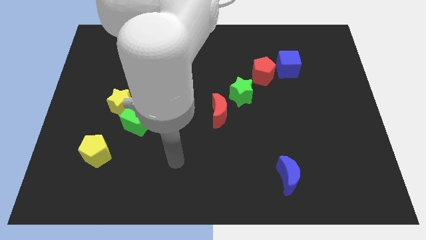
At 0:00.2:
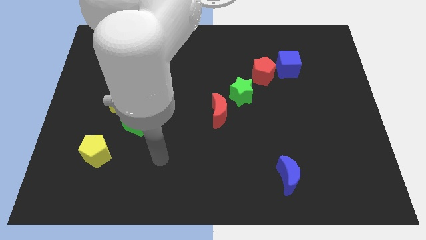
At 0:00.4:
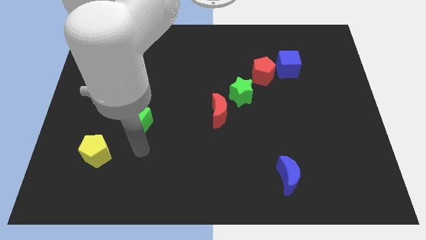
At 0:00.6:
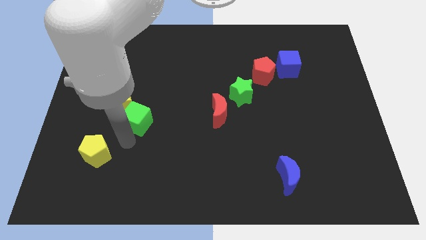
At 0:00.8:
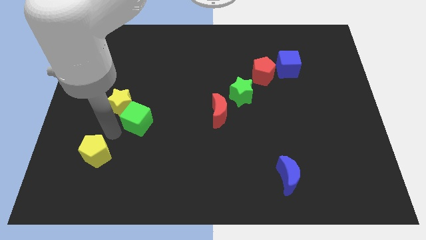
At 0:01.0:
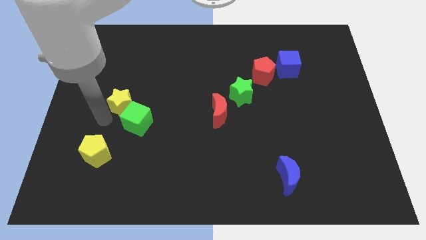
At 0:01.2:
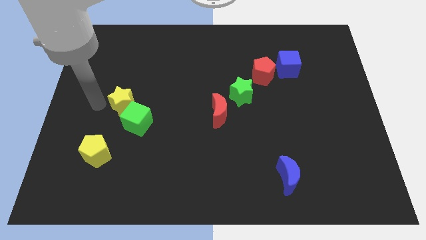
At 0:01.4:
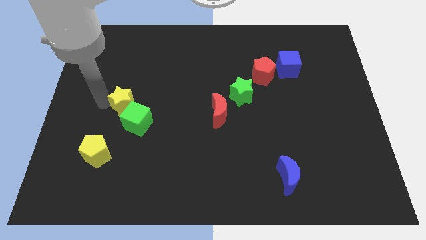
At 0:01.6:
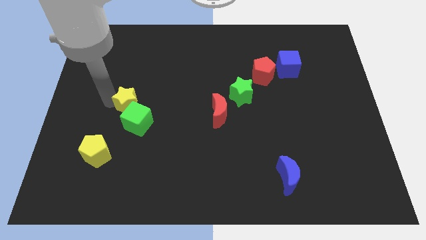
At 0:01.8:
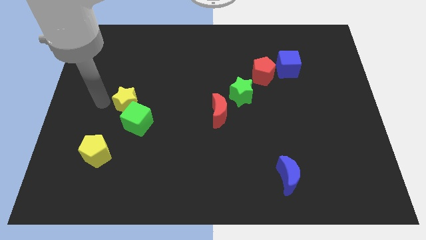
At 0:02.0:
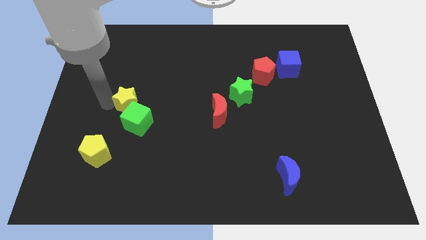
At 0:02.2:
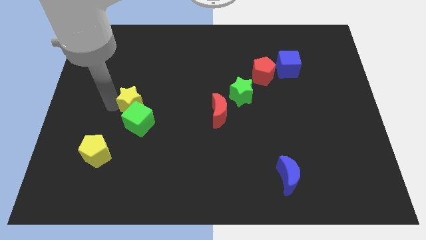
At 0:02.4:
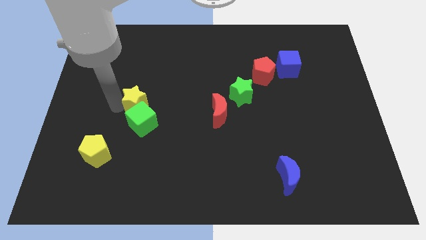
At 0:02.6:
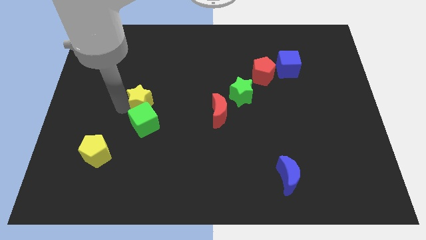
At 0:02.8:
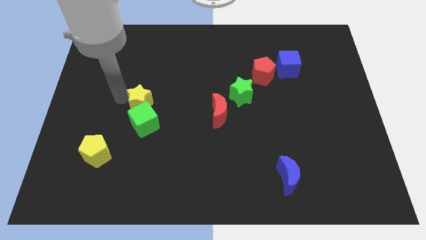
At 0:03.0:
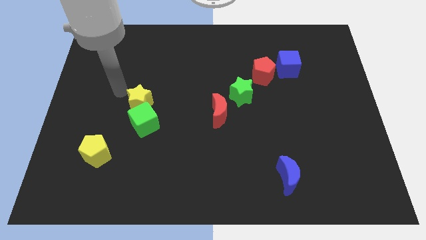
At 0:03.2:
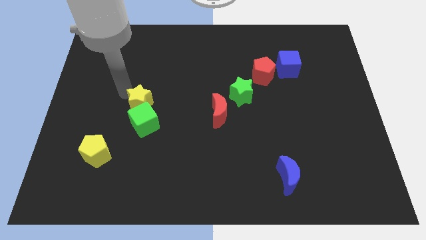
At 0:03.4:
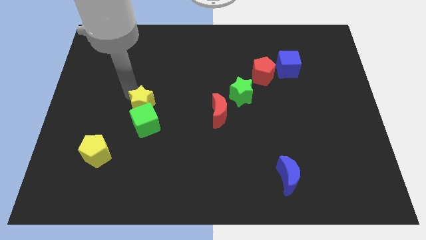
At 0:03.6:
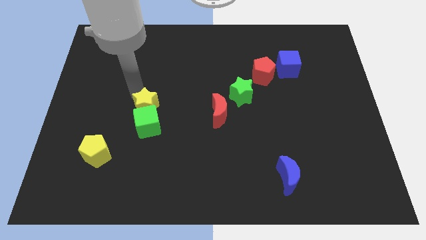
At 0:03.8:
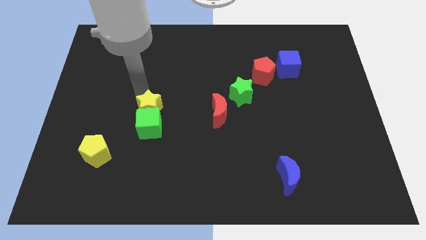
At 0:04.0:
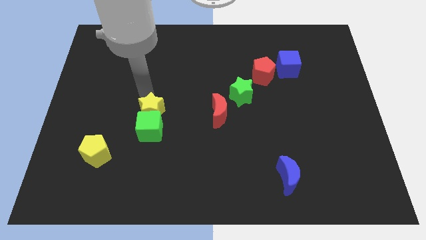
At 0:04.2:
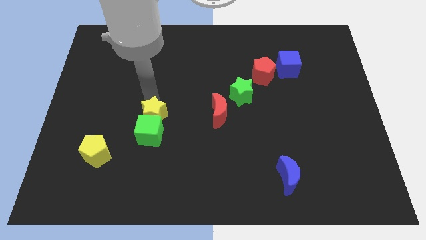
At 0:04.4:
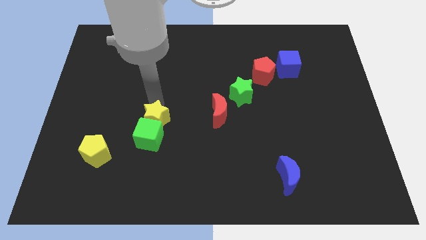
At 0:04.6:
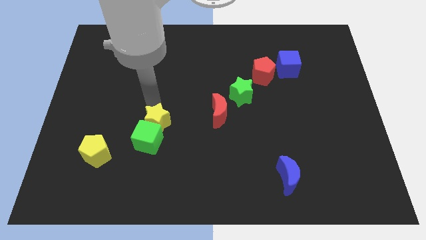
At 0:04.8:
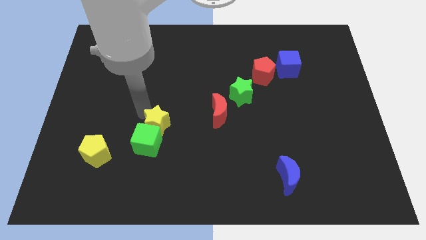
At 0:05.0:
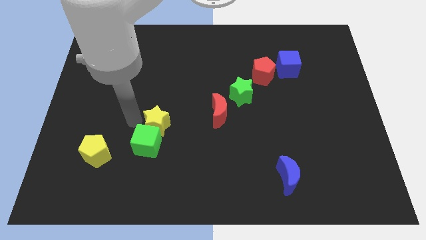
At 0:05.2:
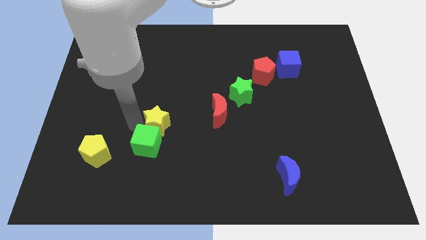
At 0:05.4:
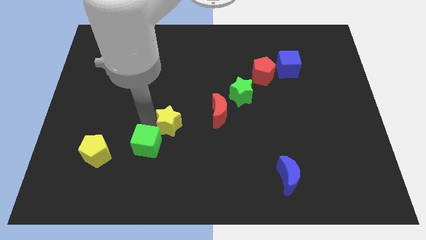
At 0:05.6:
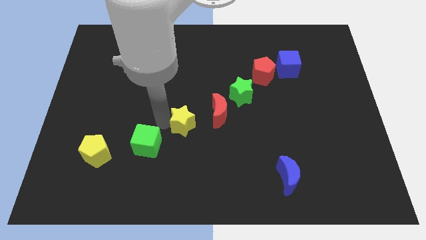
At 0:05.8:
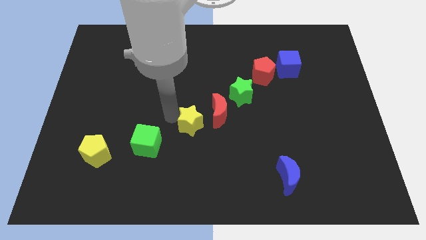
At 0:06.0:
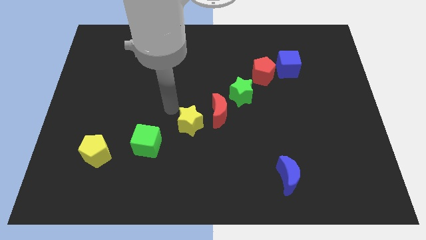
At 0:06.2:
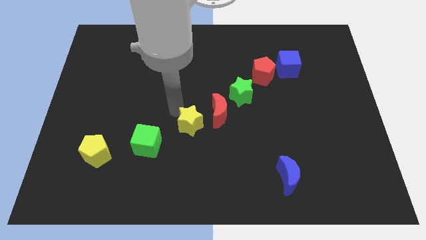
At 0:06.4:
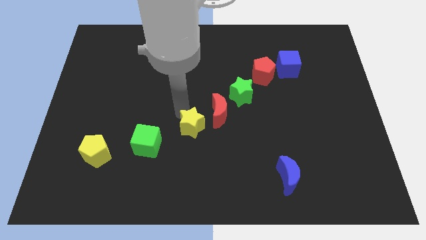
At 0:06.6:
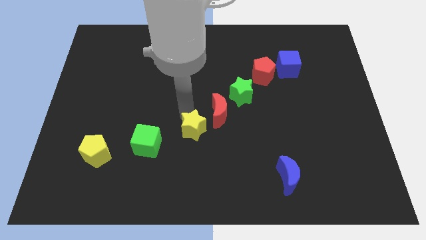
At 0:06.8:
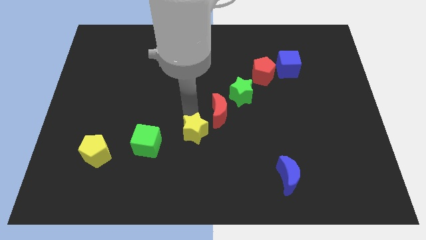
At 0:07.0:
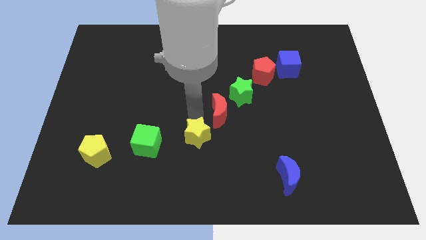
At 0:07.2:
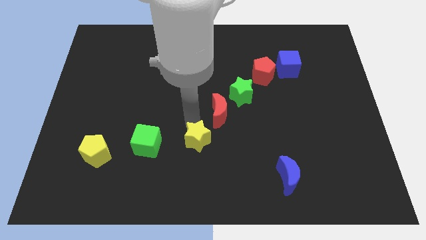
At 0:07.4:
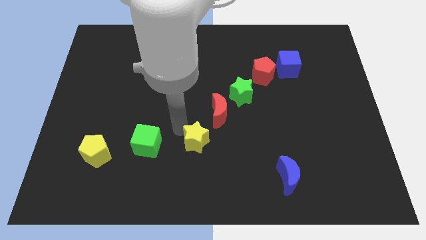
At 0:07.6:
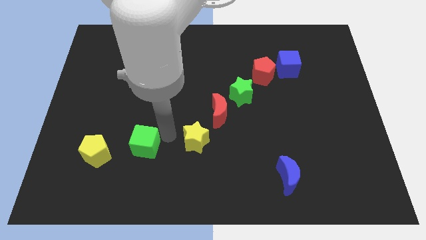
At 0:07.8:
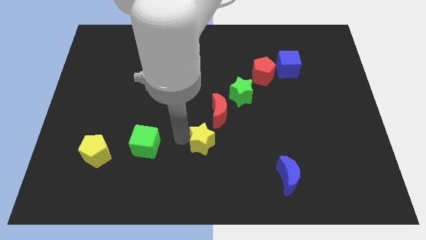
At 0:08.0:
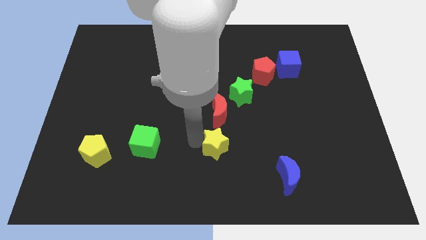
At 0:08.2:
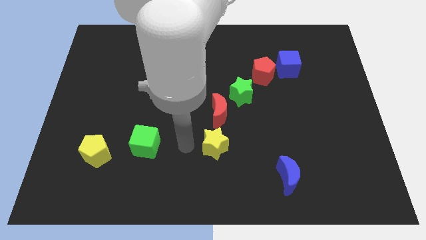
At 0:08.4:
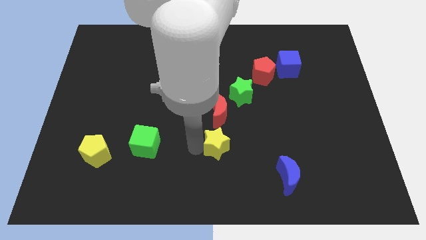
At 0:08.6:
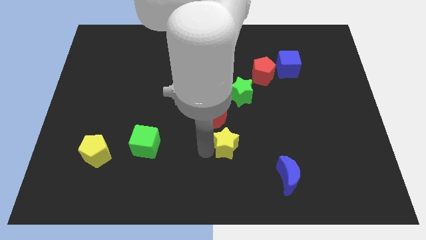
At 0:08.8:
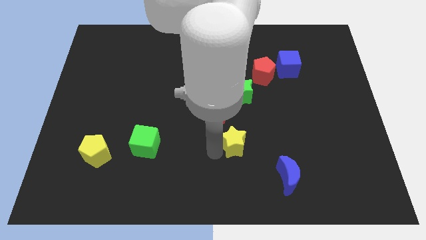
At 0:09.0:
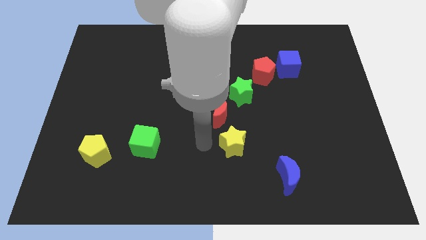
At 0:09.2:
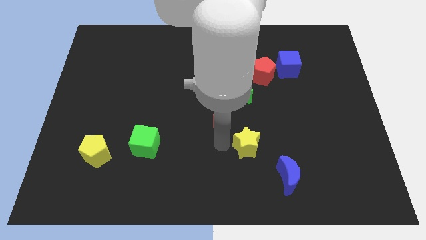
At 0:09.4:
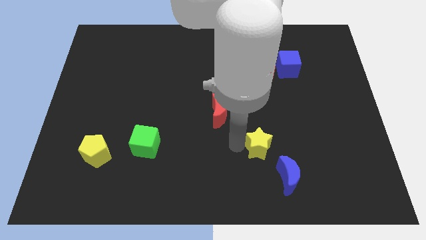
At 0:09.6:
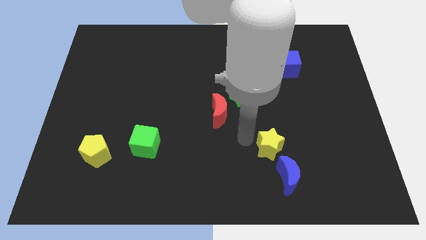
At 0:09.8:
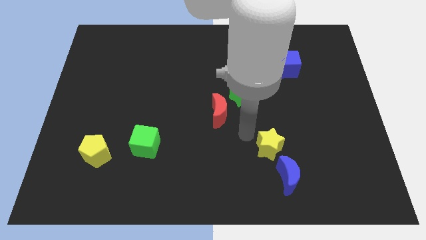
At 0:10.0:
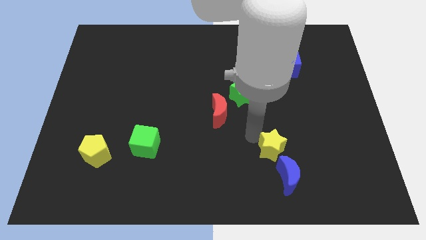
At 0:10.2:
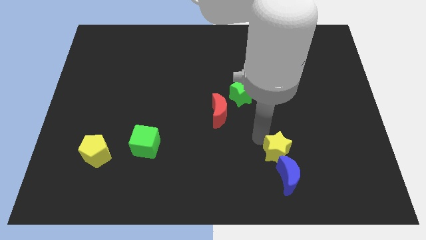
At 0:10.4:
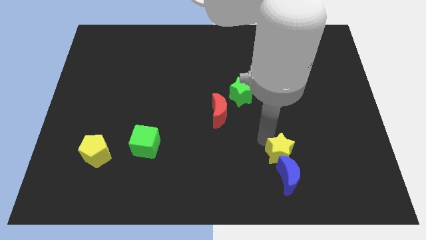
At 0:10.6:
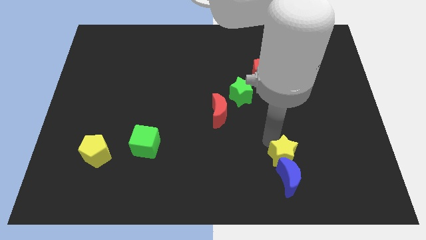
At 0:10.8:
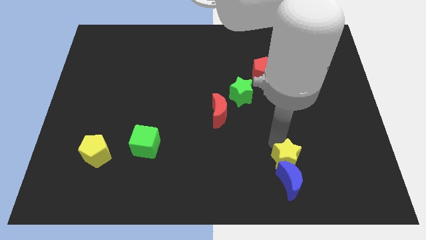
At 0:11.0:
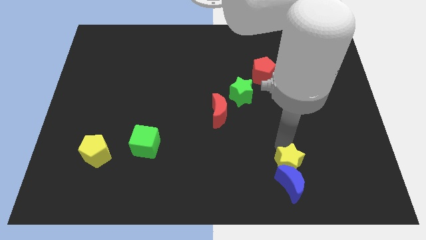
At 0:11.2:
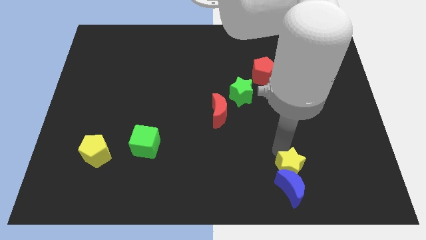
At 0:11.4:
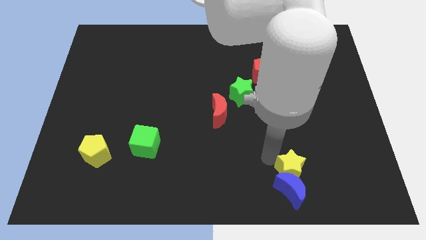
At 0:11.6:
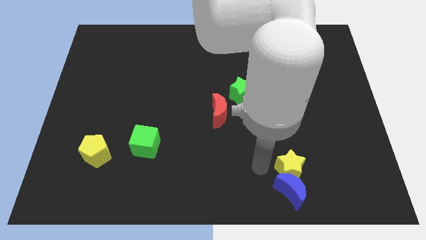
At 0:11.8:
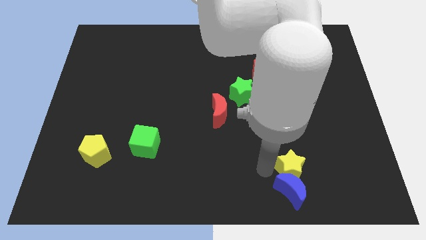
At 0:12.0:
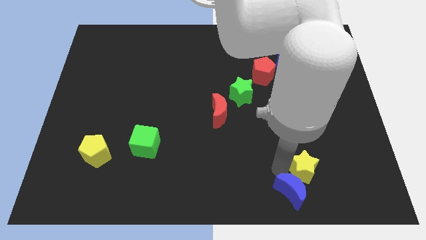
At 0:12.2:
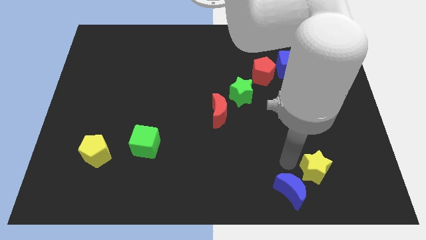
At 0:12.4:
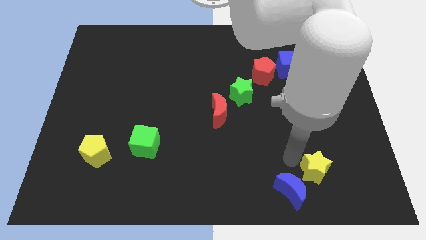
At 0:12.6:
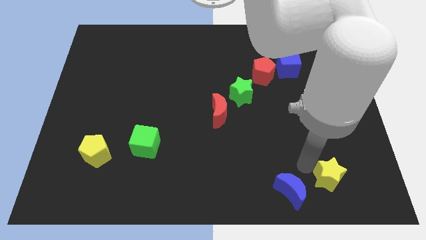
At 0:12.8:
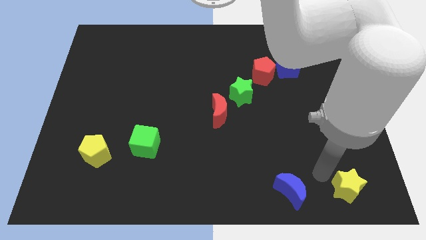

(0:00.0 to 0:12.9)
move the yellow star to the bottom right of the board

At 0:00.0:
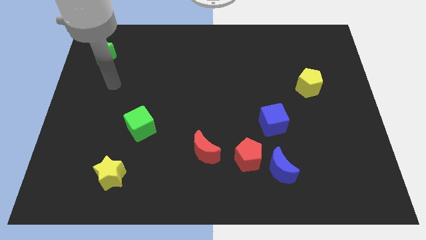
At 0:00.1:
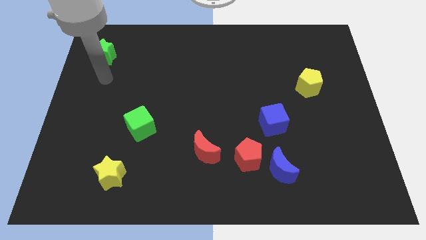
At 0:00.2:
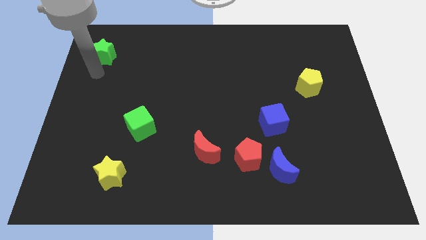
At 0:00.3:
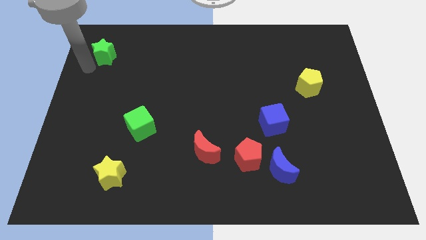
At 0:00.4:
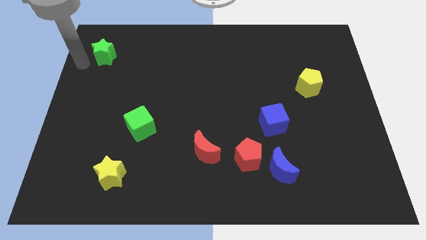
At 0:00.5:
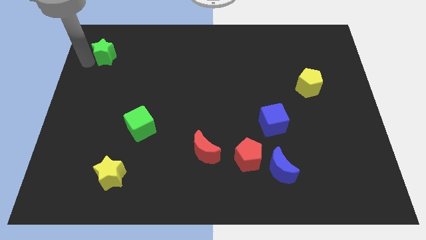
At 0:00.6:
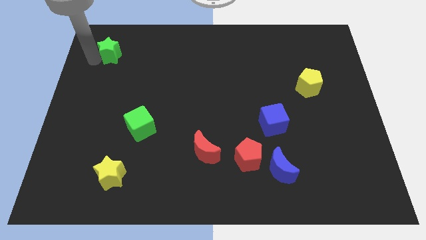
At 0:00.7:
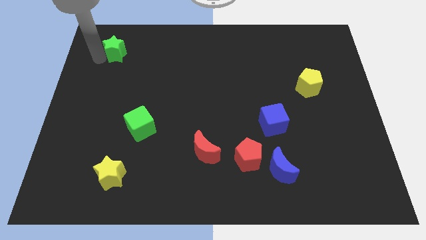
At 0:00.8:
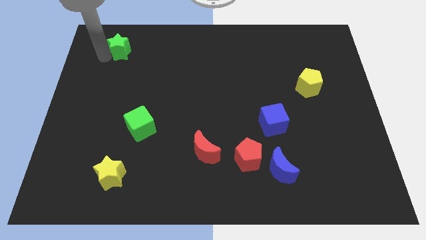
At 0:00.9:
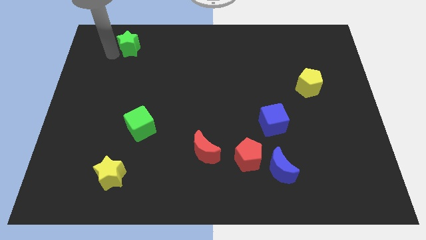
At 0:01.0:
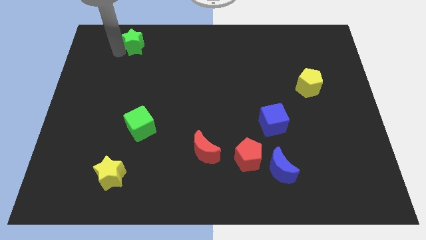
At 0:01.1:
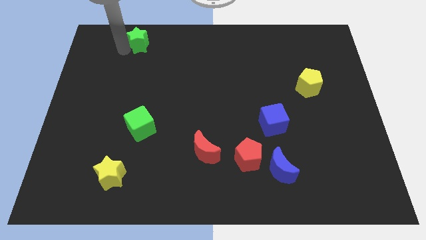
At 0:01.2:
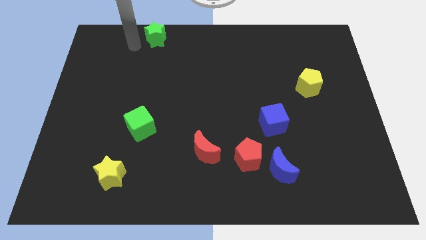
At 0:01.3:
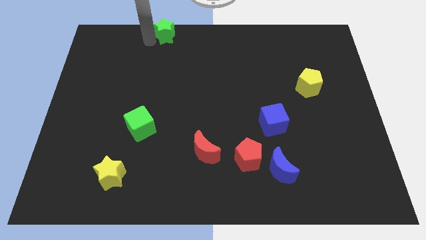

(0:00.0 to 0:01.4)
slide the green star to the towards your base
